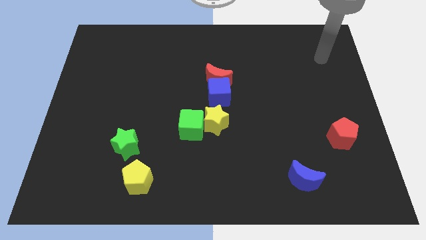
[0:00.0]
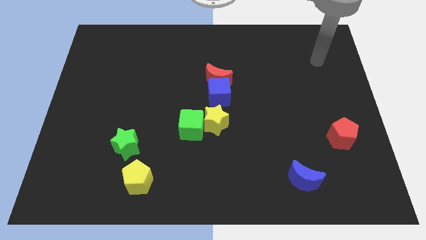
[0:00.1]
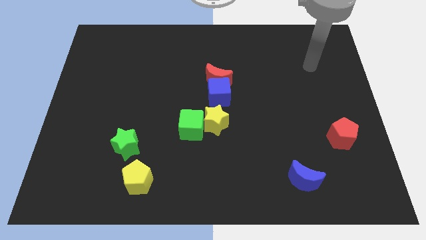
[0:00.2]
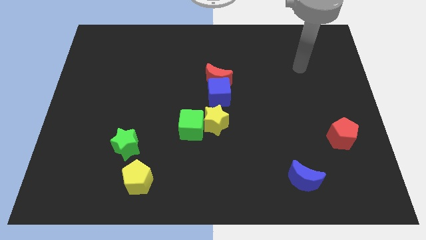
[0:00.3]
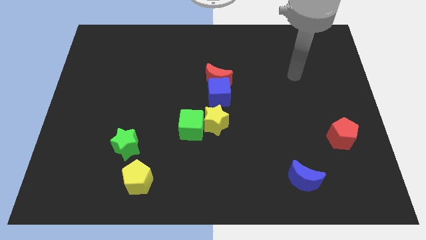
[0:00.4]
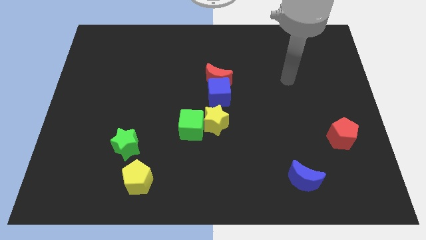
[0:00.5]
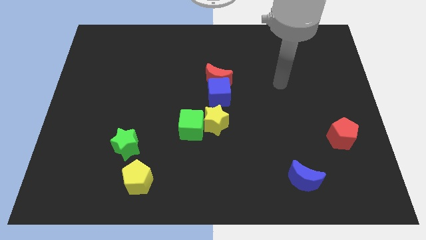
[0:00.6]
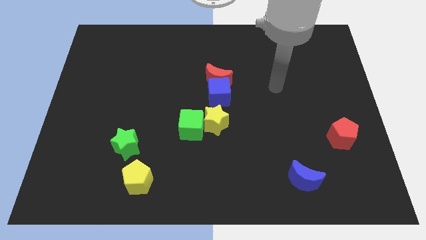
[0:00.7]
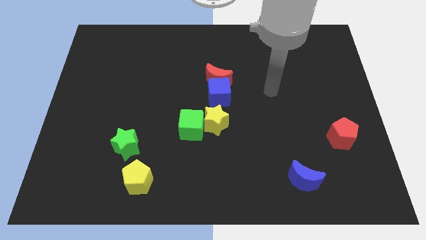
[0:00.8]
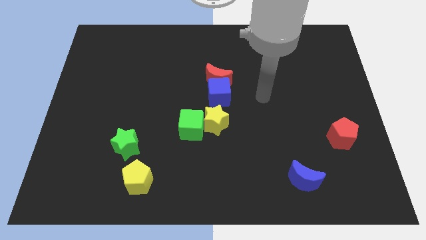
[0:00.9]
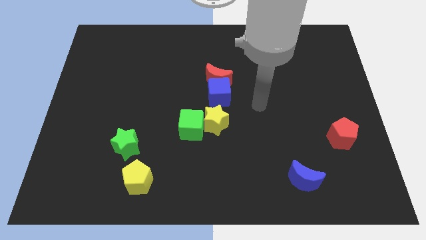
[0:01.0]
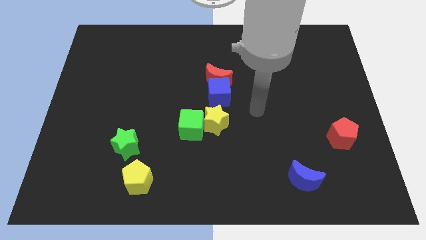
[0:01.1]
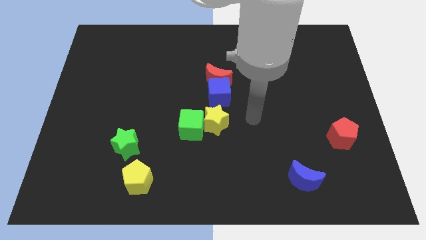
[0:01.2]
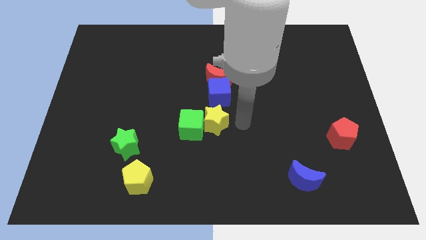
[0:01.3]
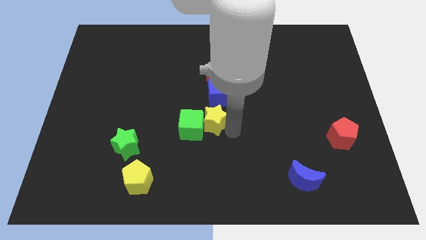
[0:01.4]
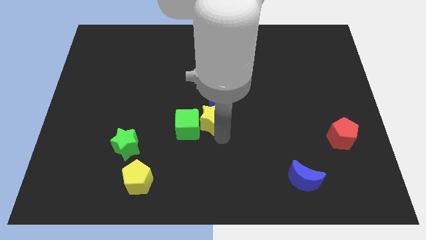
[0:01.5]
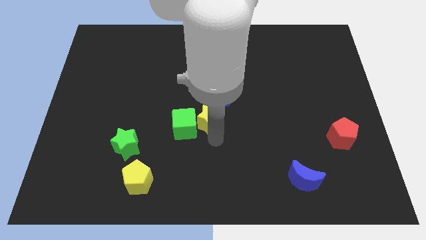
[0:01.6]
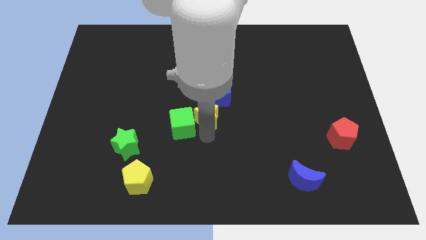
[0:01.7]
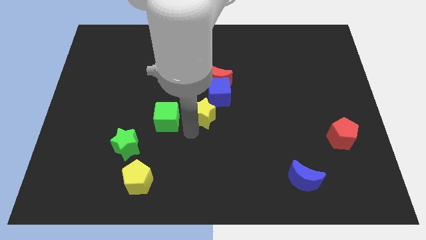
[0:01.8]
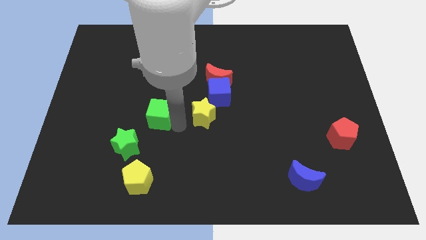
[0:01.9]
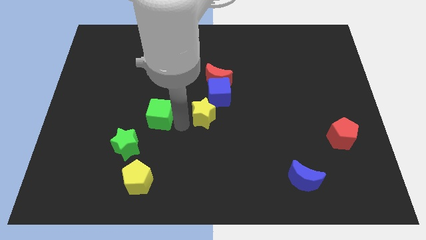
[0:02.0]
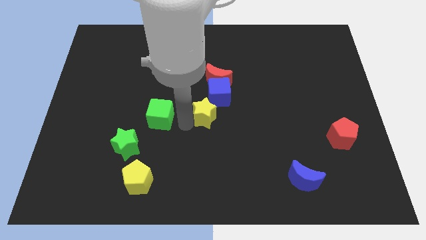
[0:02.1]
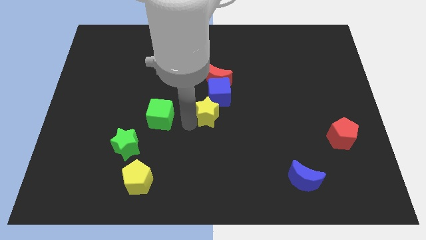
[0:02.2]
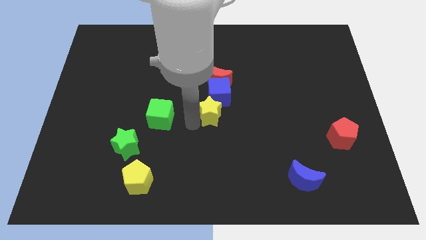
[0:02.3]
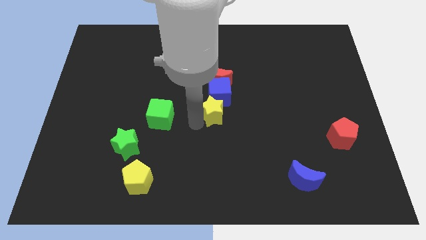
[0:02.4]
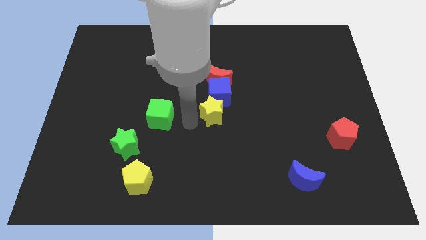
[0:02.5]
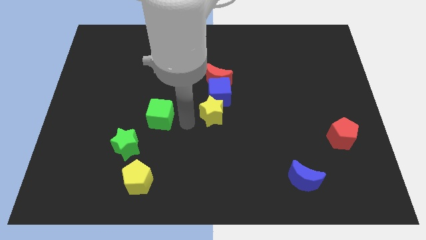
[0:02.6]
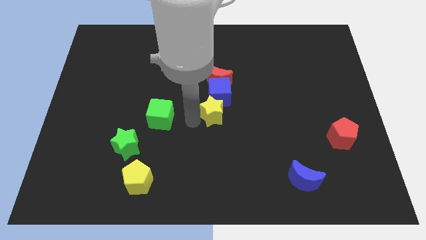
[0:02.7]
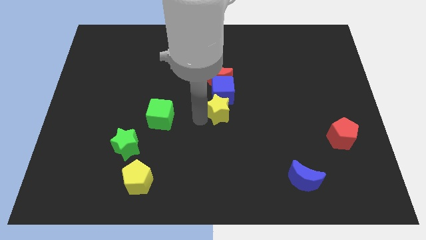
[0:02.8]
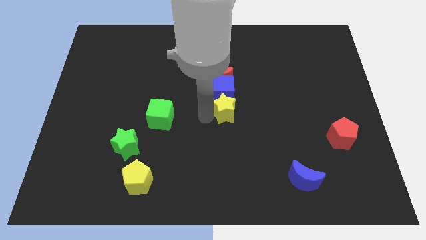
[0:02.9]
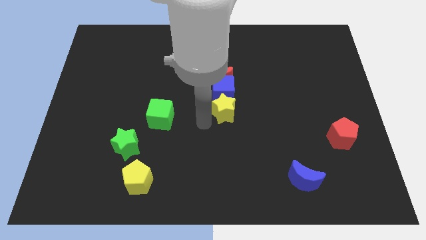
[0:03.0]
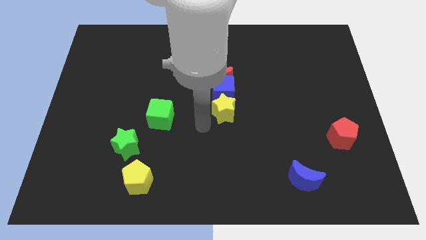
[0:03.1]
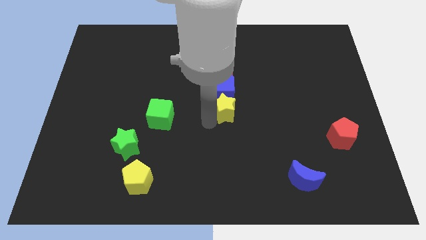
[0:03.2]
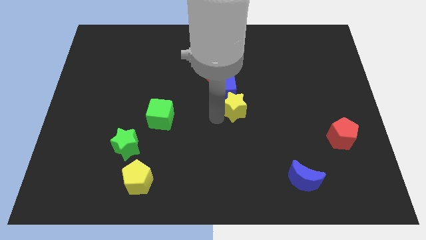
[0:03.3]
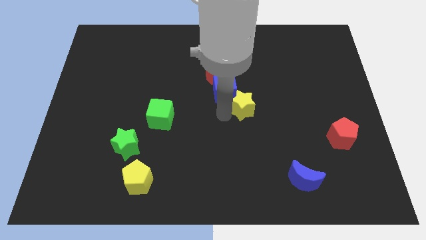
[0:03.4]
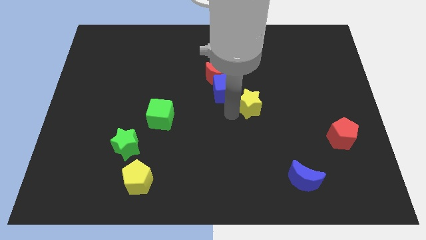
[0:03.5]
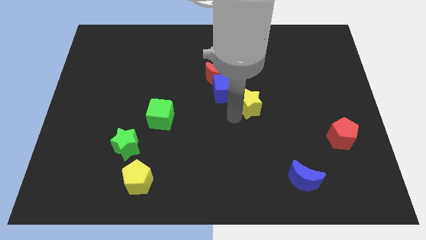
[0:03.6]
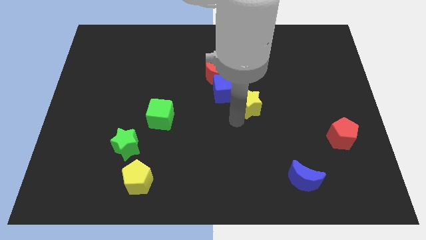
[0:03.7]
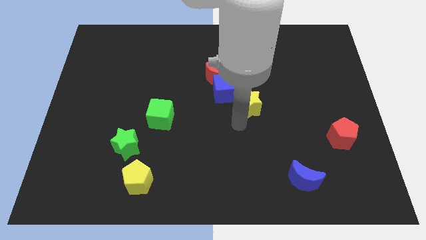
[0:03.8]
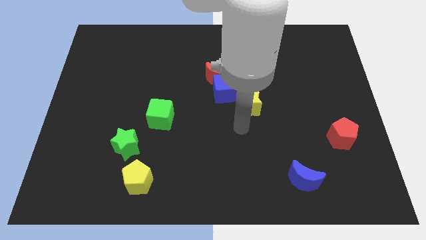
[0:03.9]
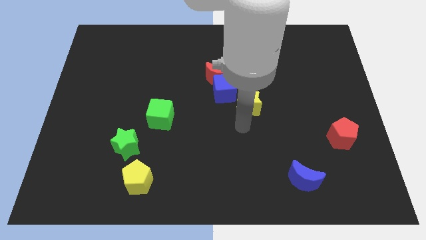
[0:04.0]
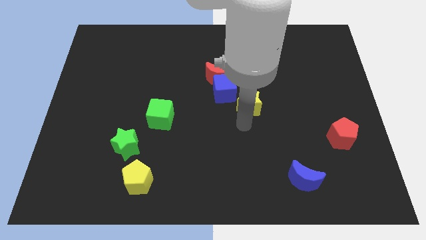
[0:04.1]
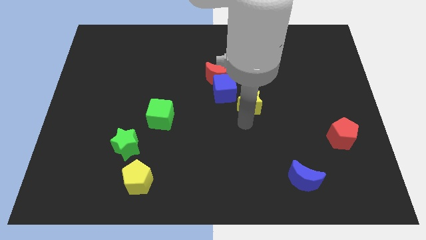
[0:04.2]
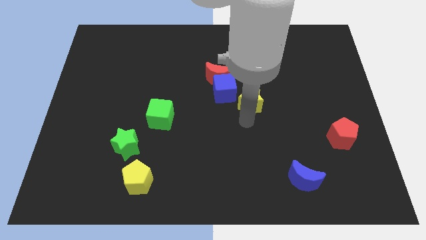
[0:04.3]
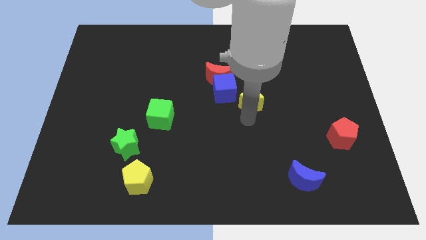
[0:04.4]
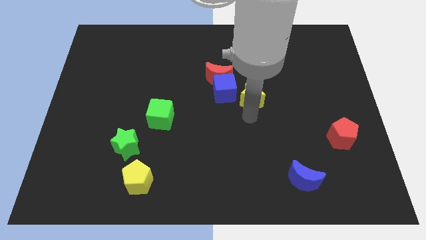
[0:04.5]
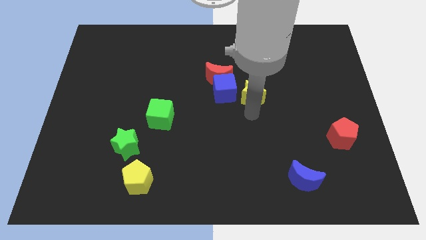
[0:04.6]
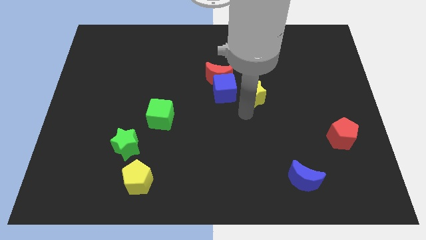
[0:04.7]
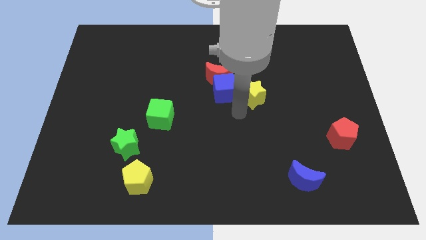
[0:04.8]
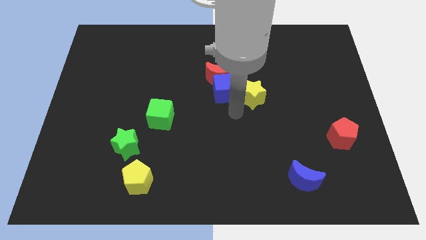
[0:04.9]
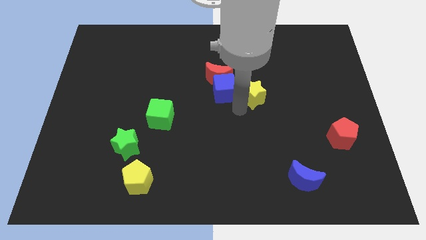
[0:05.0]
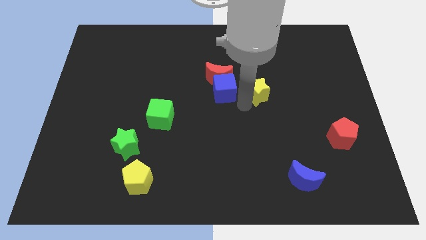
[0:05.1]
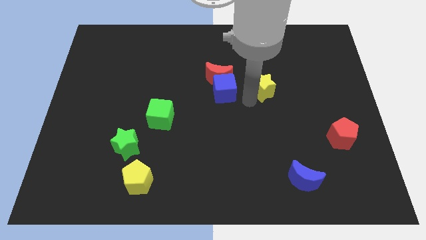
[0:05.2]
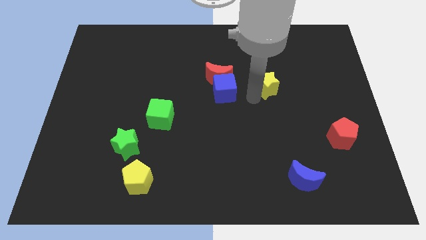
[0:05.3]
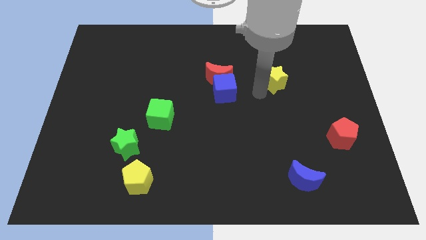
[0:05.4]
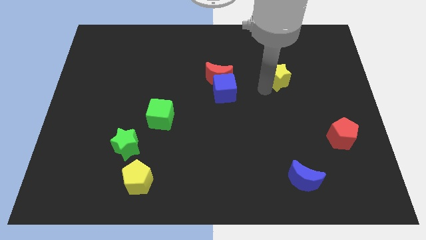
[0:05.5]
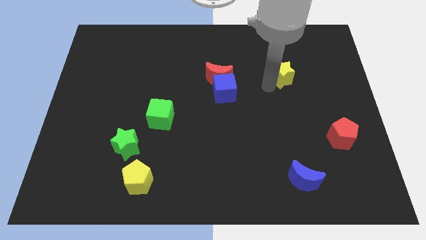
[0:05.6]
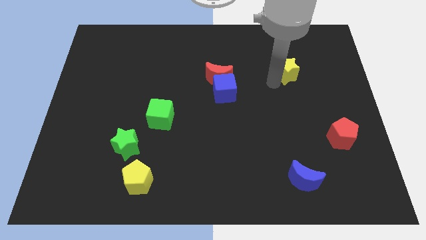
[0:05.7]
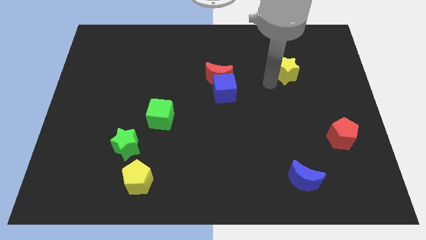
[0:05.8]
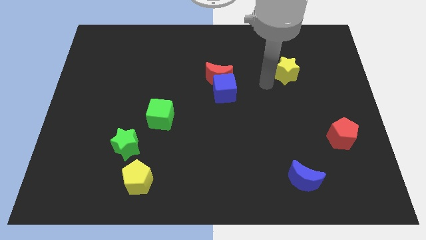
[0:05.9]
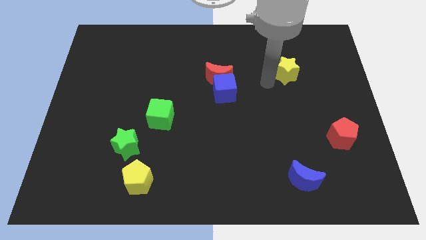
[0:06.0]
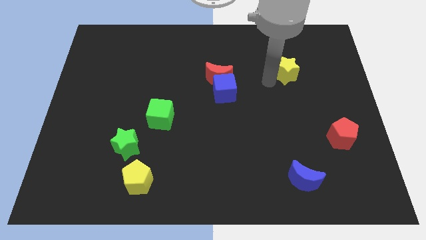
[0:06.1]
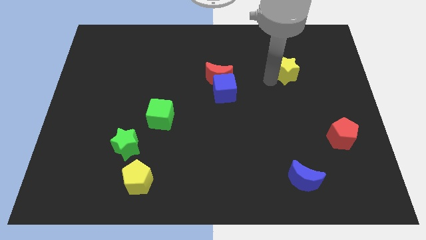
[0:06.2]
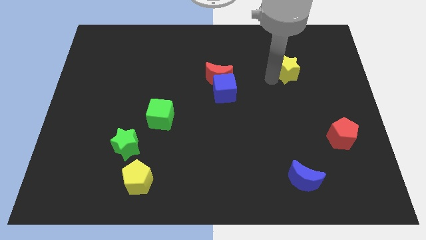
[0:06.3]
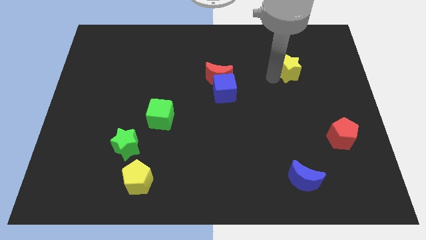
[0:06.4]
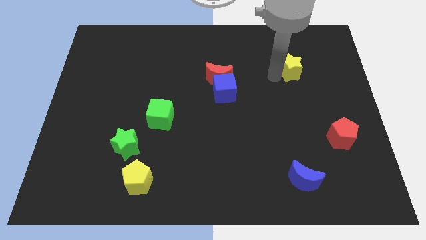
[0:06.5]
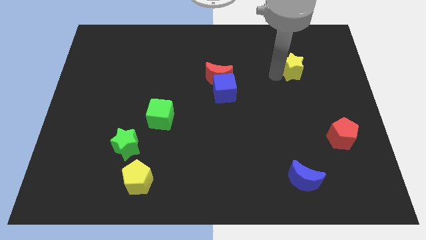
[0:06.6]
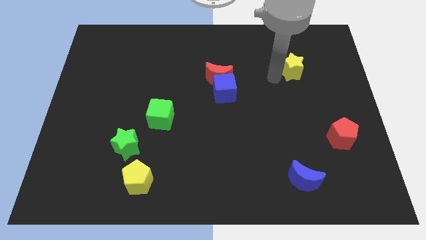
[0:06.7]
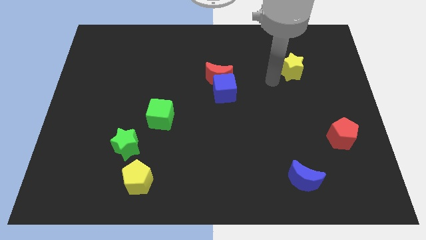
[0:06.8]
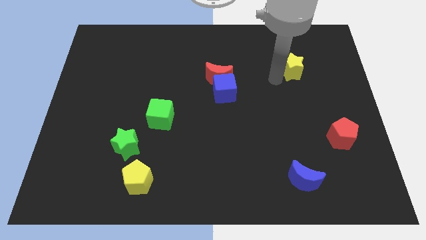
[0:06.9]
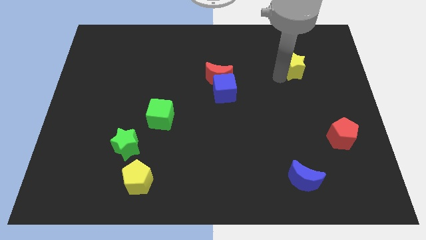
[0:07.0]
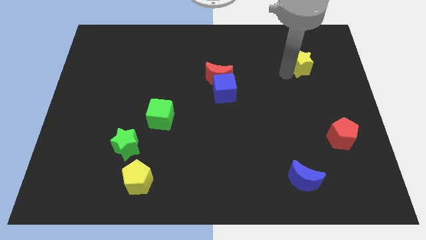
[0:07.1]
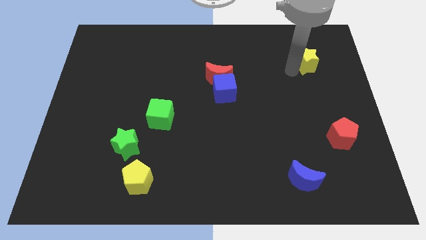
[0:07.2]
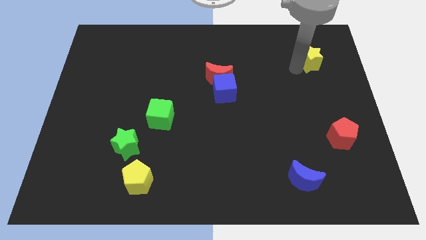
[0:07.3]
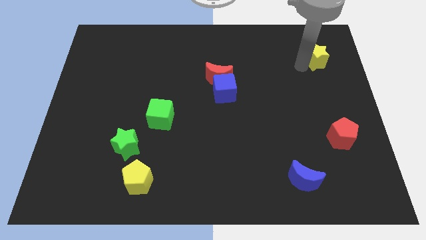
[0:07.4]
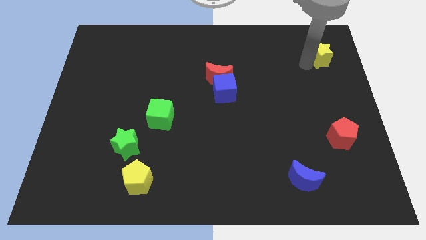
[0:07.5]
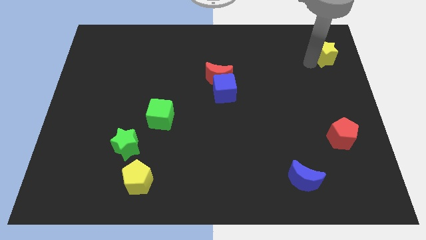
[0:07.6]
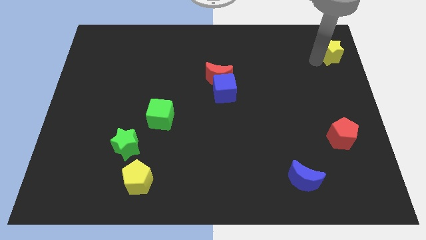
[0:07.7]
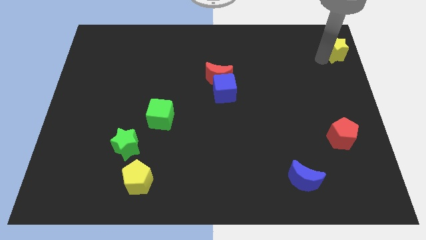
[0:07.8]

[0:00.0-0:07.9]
put the yellow star to the top right of the board
